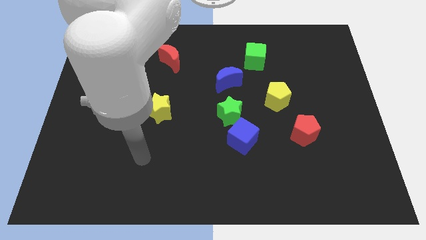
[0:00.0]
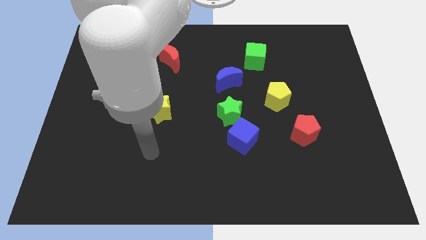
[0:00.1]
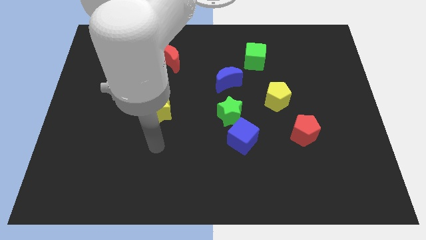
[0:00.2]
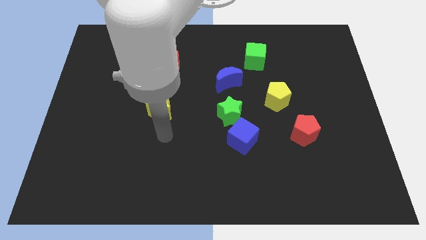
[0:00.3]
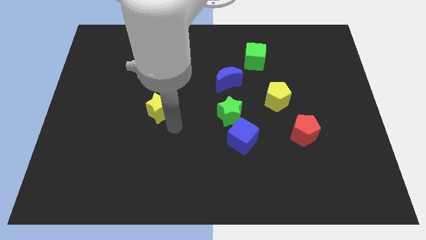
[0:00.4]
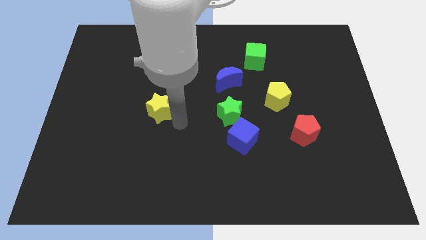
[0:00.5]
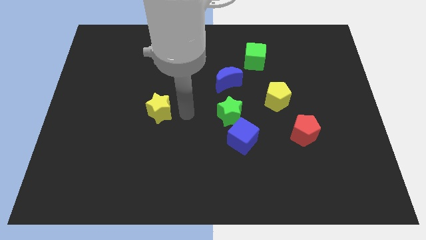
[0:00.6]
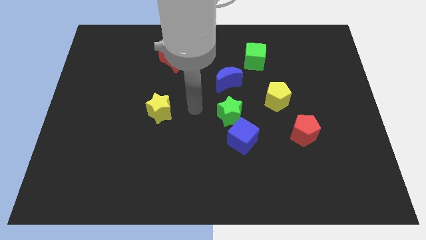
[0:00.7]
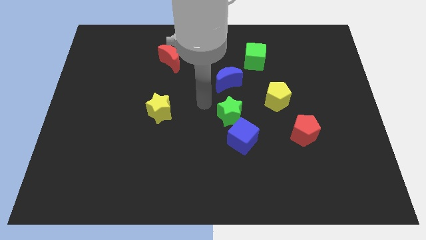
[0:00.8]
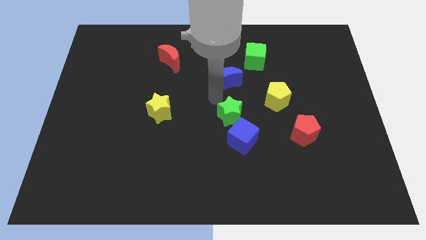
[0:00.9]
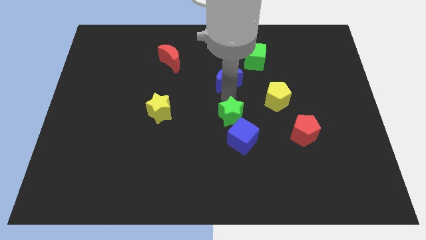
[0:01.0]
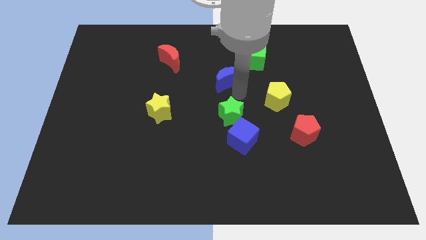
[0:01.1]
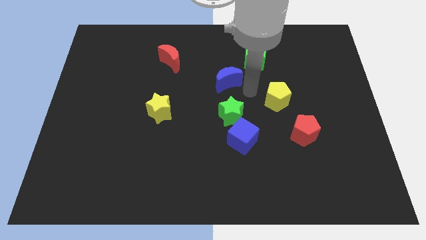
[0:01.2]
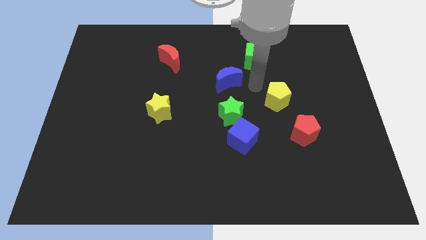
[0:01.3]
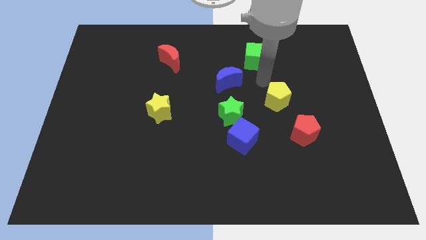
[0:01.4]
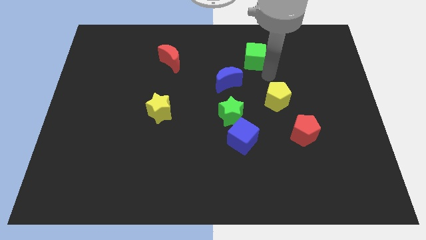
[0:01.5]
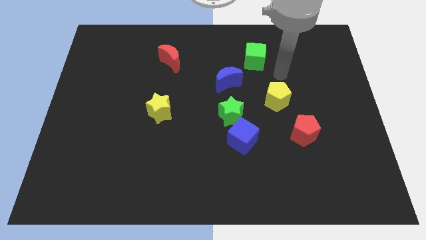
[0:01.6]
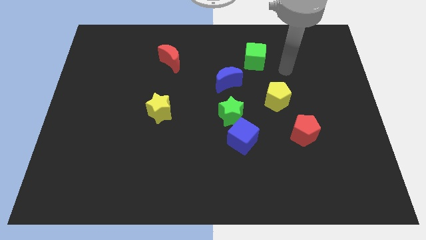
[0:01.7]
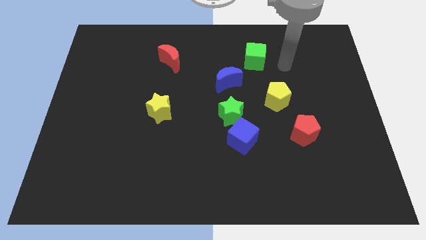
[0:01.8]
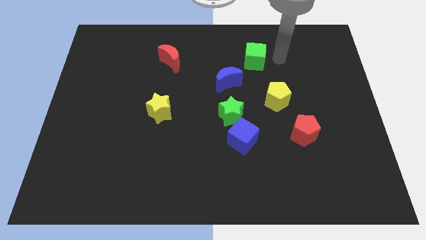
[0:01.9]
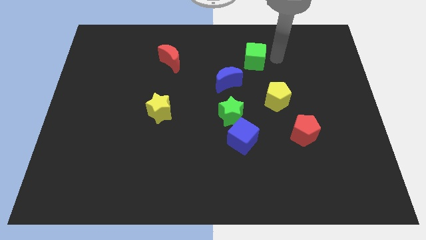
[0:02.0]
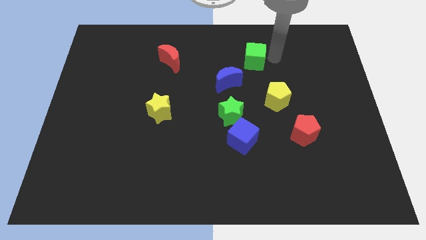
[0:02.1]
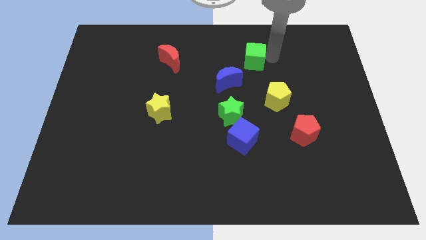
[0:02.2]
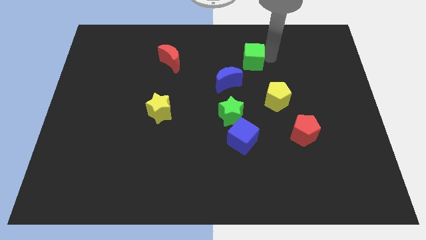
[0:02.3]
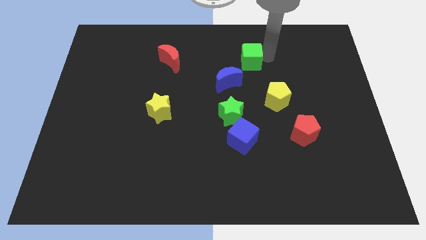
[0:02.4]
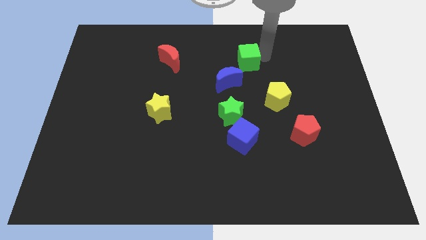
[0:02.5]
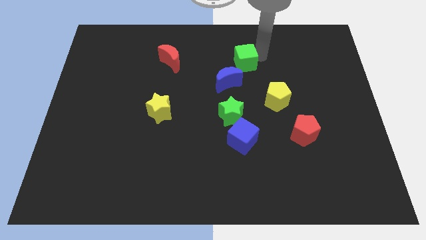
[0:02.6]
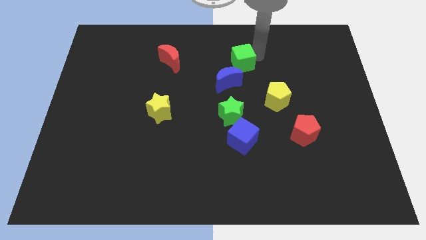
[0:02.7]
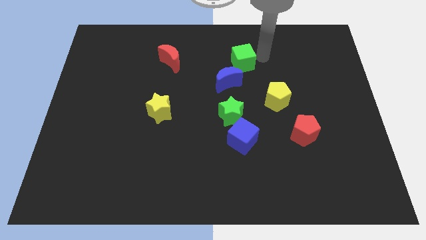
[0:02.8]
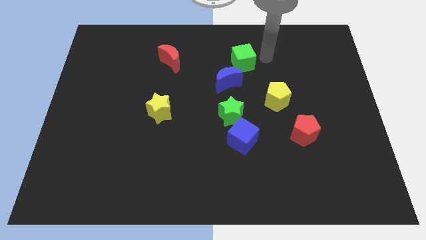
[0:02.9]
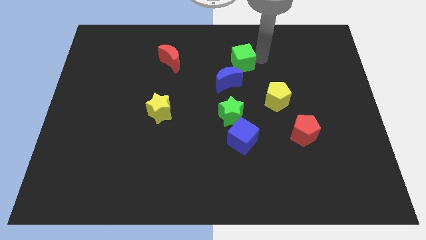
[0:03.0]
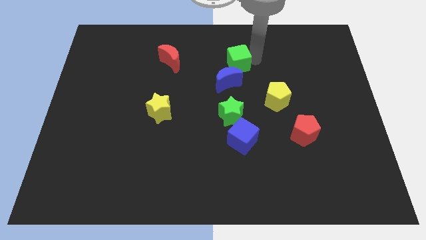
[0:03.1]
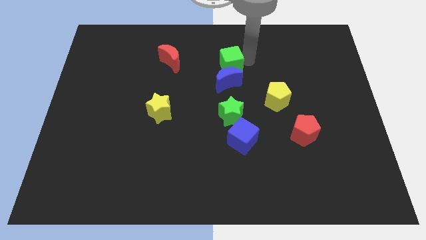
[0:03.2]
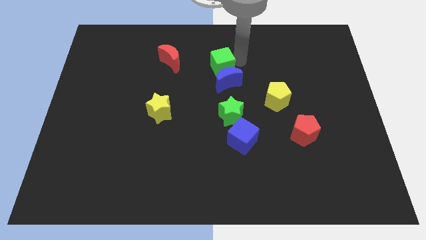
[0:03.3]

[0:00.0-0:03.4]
push the green cube a little bit downwards and left diagonally

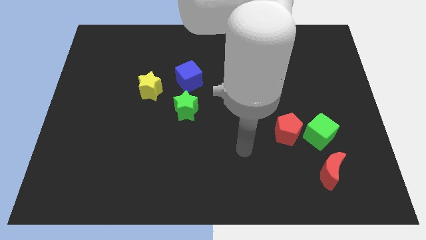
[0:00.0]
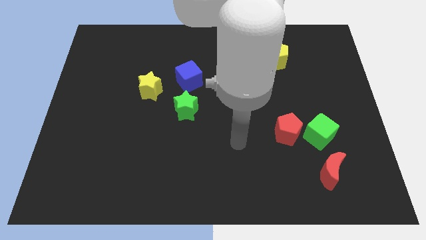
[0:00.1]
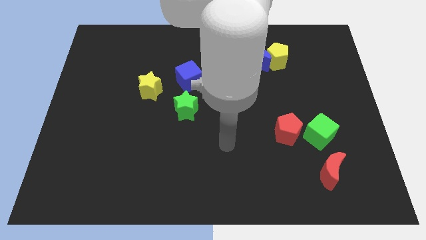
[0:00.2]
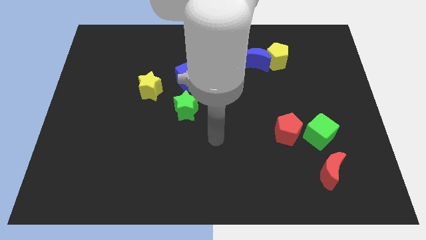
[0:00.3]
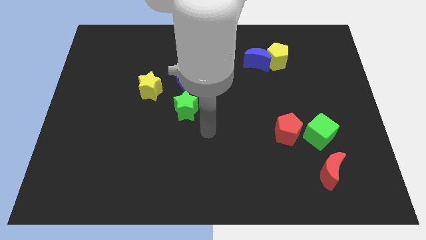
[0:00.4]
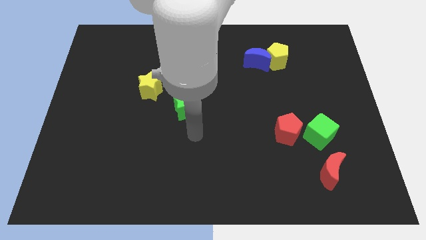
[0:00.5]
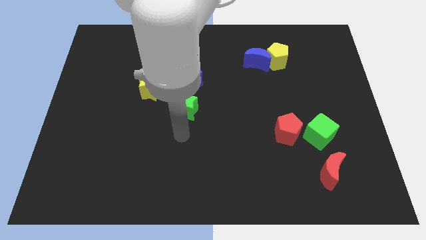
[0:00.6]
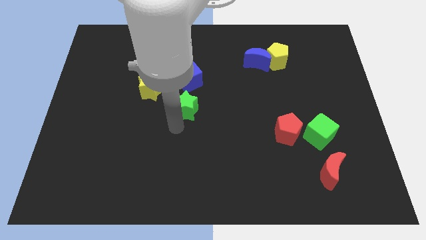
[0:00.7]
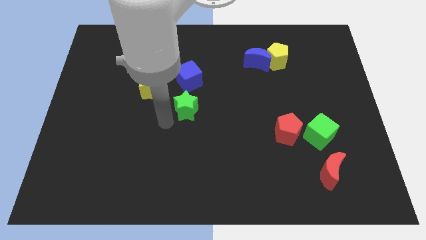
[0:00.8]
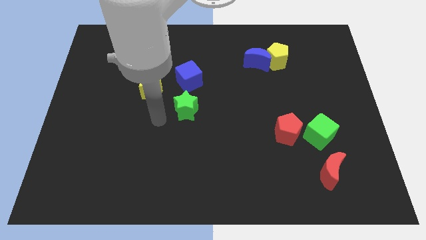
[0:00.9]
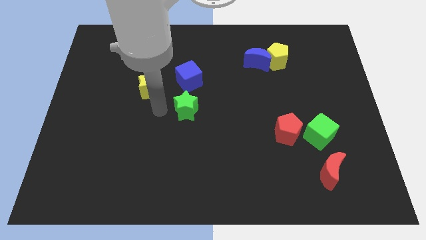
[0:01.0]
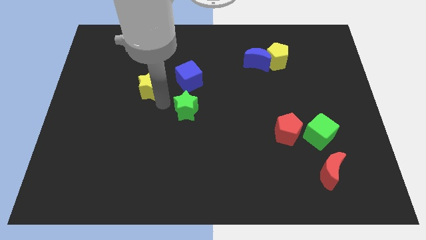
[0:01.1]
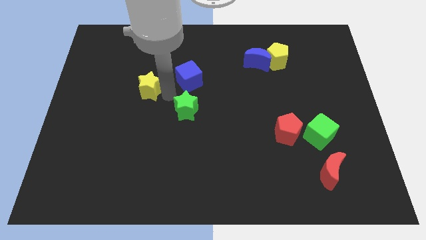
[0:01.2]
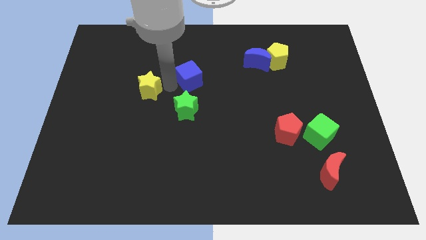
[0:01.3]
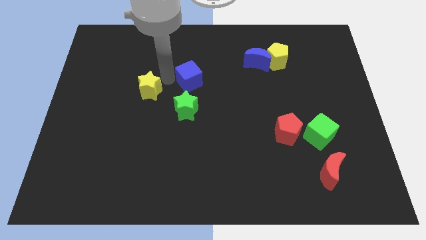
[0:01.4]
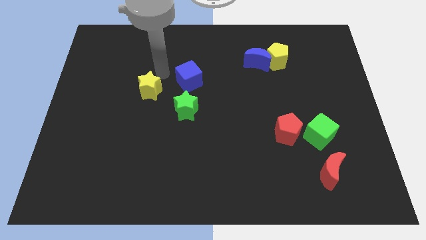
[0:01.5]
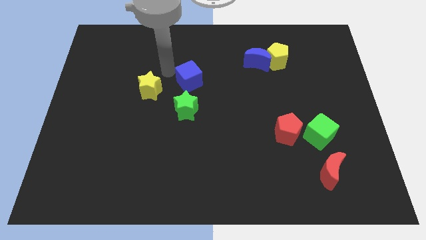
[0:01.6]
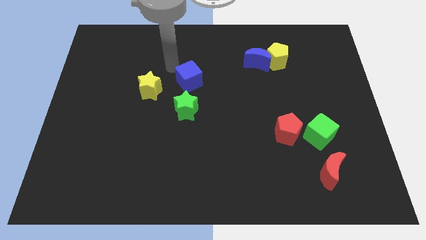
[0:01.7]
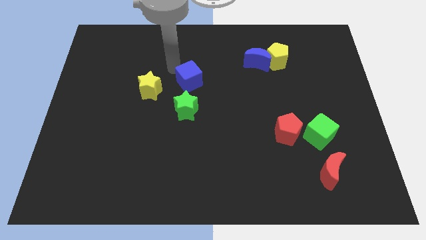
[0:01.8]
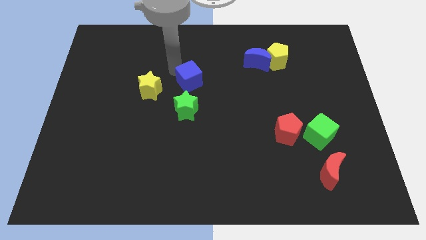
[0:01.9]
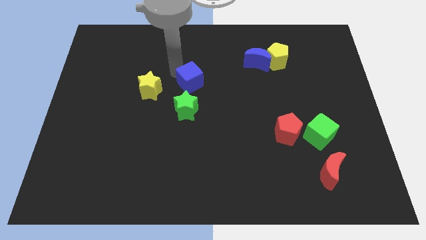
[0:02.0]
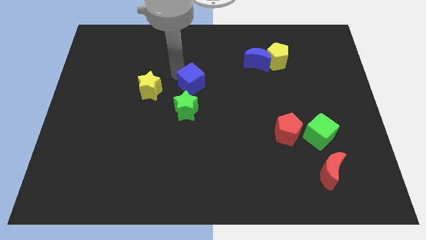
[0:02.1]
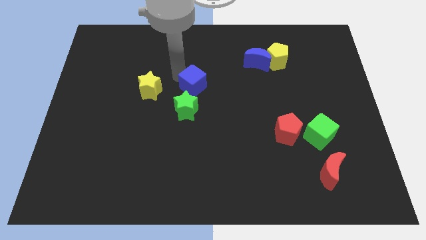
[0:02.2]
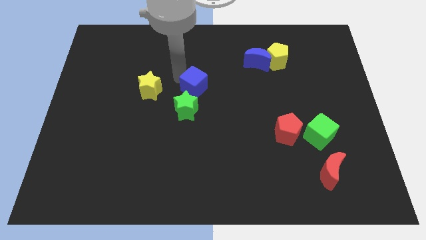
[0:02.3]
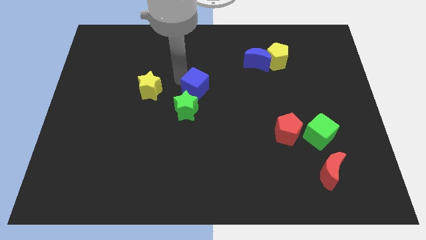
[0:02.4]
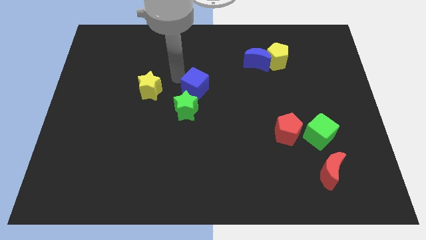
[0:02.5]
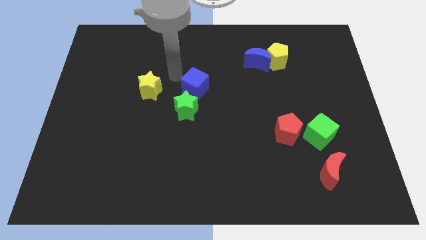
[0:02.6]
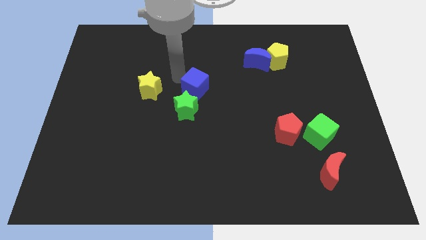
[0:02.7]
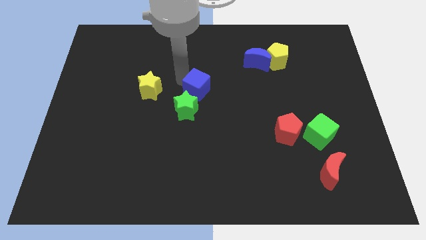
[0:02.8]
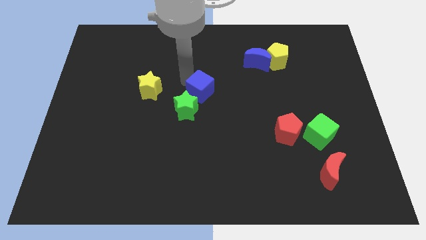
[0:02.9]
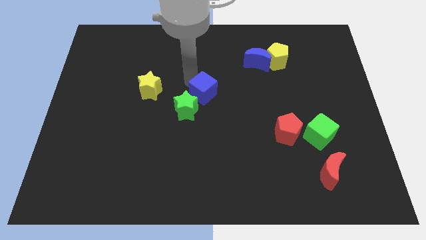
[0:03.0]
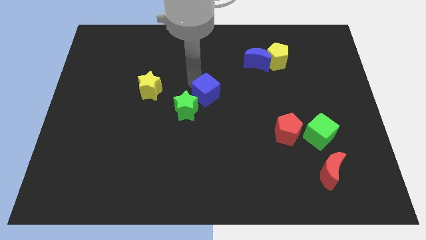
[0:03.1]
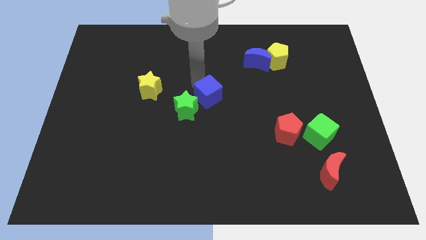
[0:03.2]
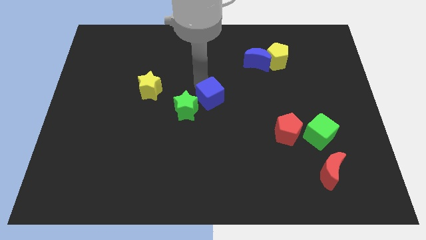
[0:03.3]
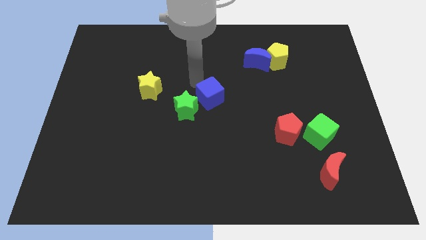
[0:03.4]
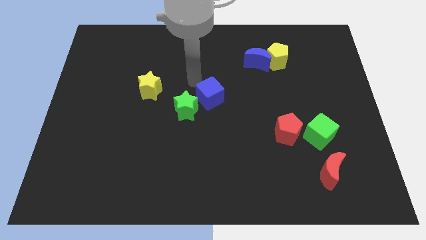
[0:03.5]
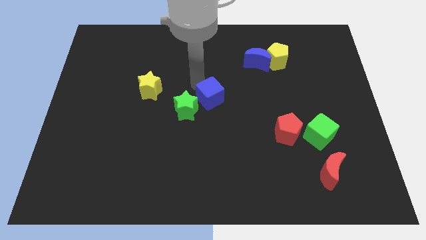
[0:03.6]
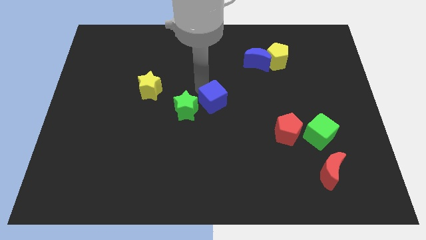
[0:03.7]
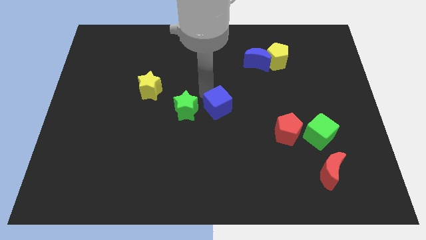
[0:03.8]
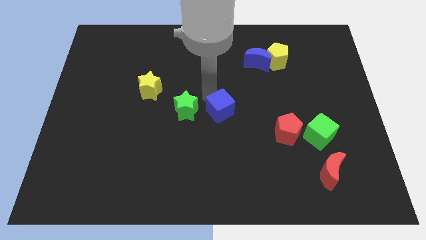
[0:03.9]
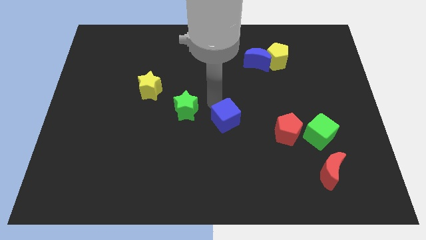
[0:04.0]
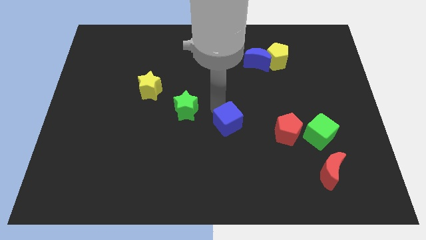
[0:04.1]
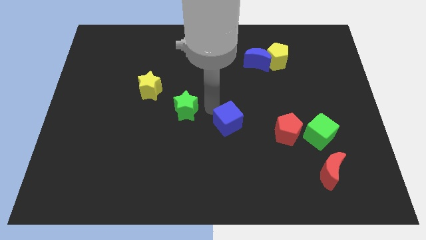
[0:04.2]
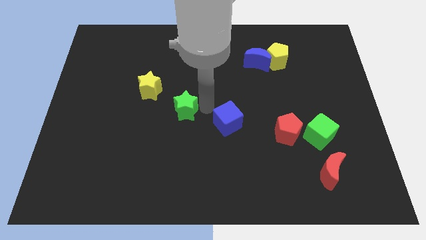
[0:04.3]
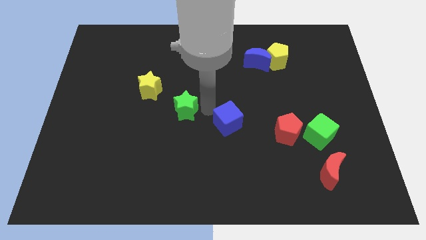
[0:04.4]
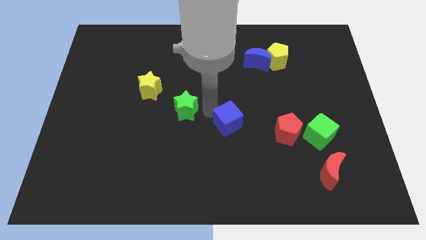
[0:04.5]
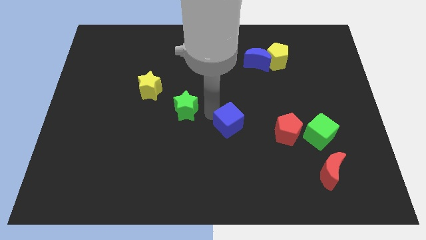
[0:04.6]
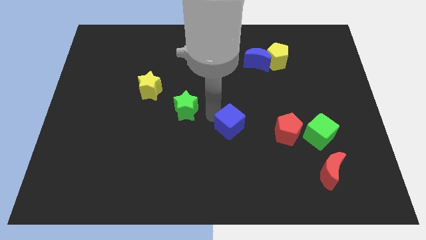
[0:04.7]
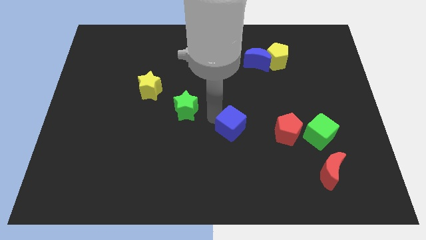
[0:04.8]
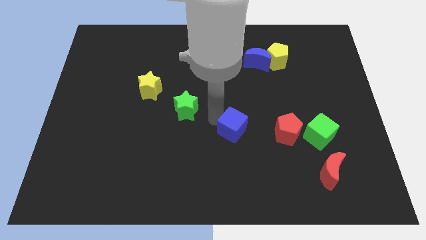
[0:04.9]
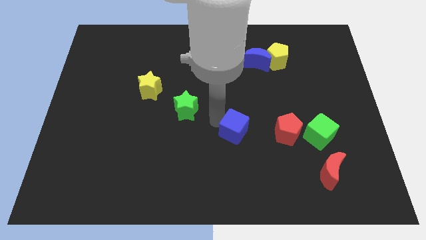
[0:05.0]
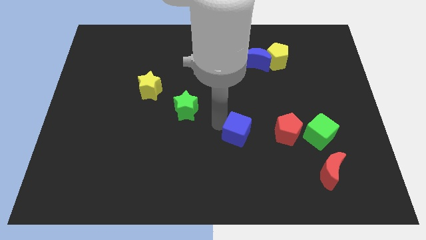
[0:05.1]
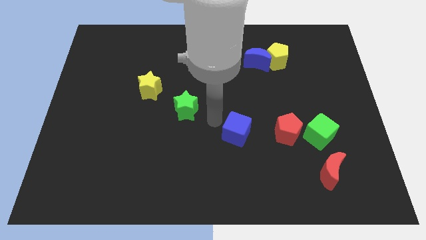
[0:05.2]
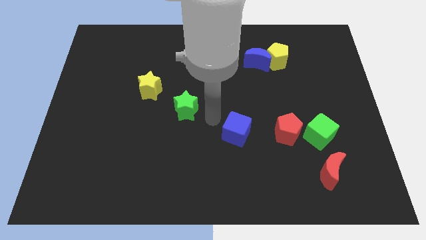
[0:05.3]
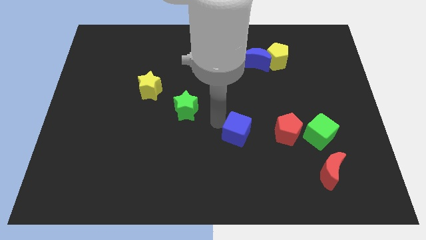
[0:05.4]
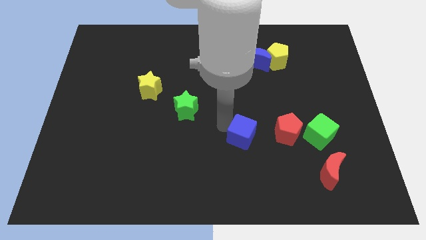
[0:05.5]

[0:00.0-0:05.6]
slide the blue cube down and right diagonally
